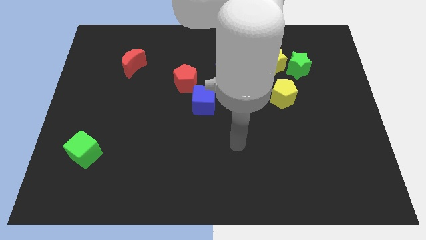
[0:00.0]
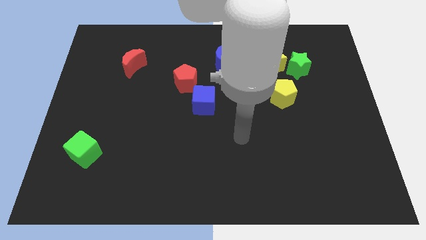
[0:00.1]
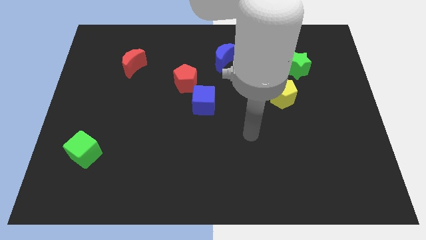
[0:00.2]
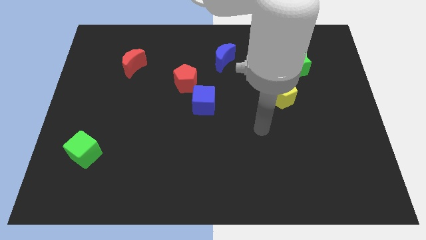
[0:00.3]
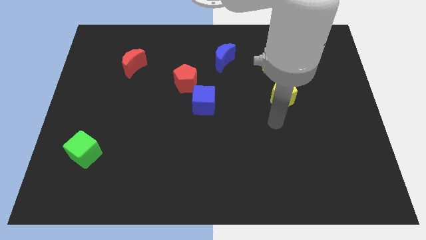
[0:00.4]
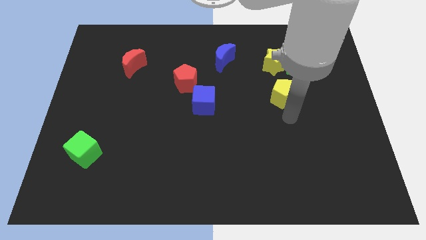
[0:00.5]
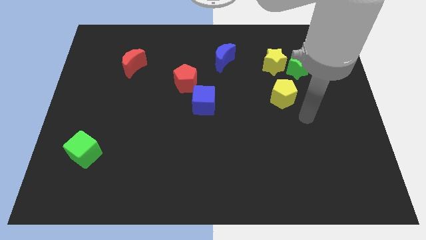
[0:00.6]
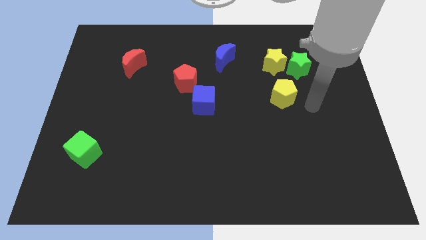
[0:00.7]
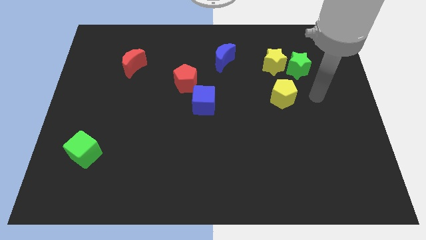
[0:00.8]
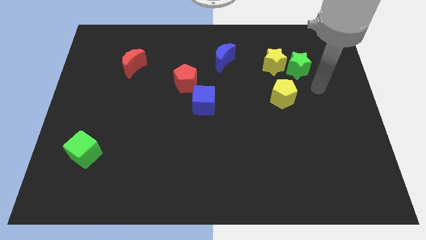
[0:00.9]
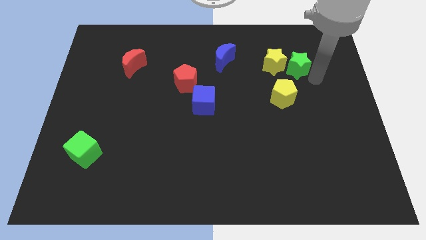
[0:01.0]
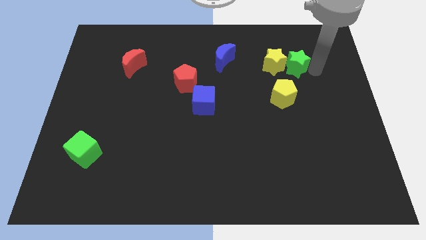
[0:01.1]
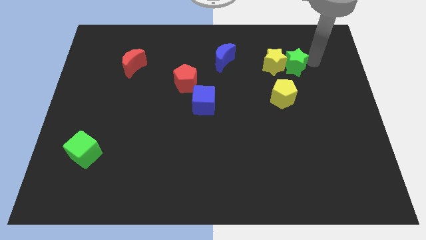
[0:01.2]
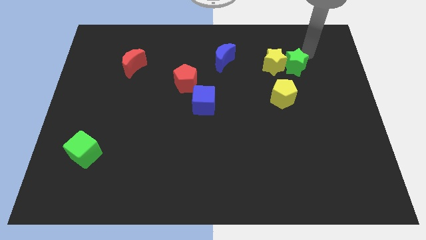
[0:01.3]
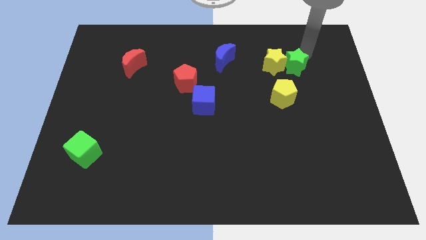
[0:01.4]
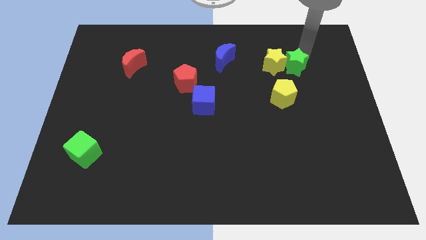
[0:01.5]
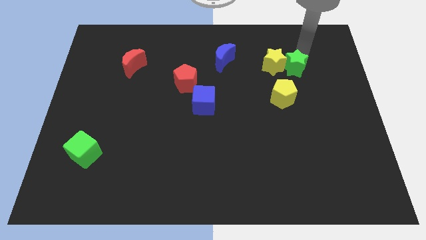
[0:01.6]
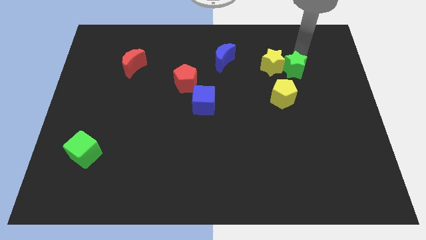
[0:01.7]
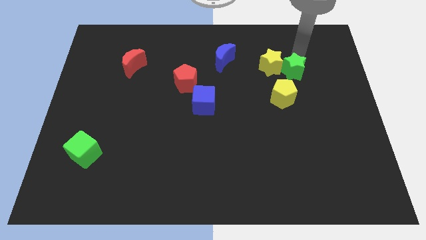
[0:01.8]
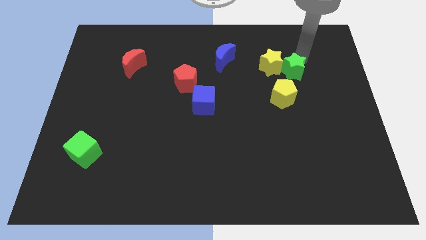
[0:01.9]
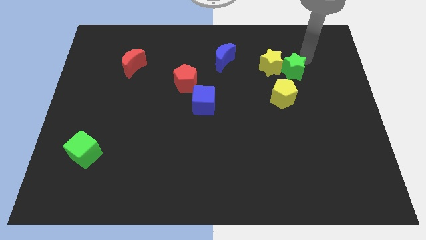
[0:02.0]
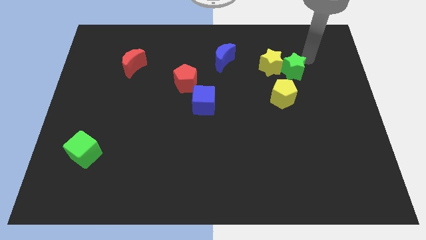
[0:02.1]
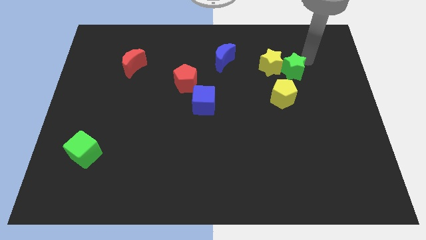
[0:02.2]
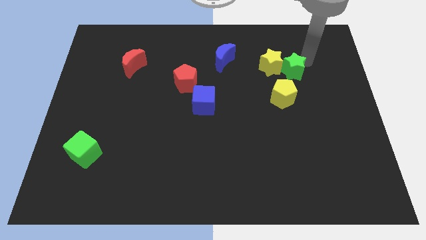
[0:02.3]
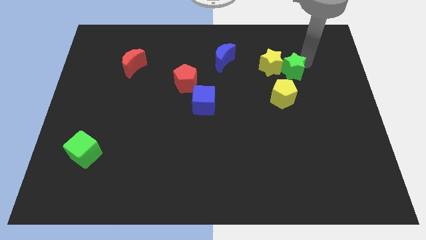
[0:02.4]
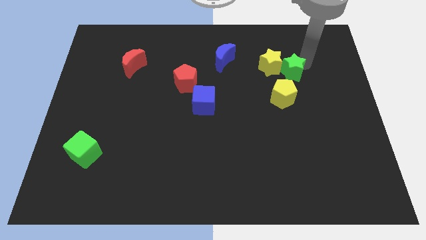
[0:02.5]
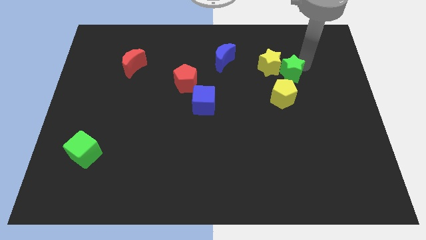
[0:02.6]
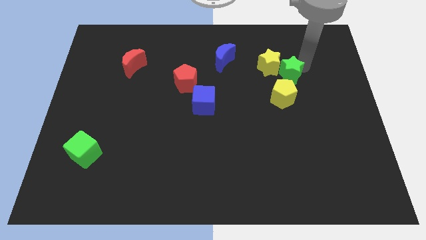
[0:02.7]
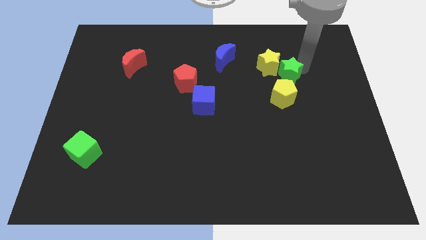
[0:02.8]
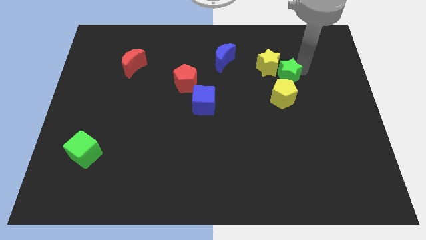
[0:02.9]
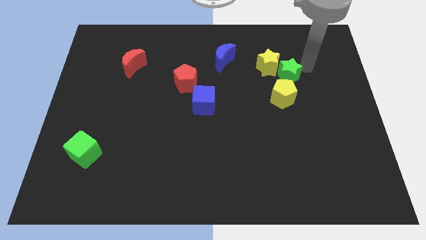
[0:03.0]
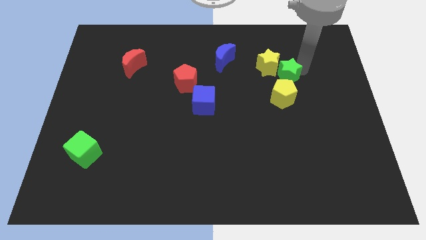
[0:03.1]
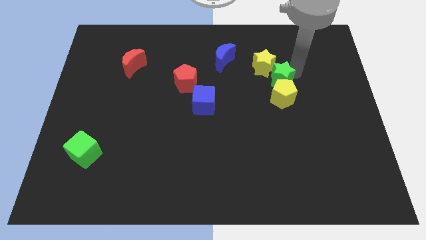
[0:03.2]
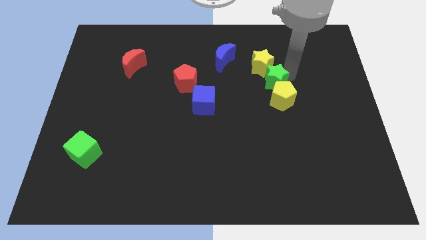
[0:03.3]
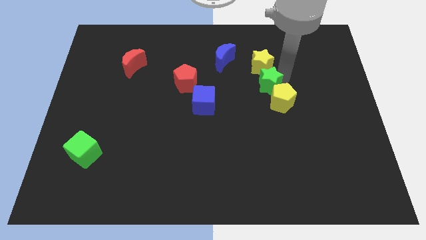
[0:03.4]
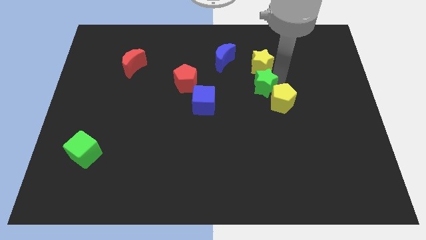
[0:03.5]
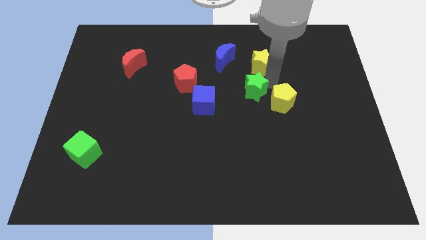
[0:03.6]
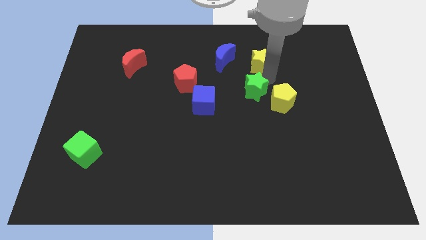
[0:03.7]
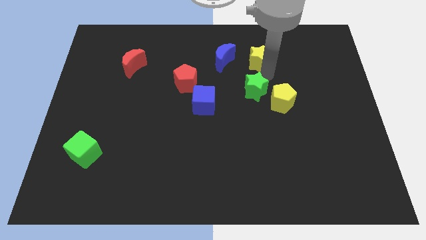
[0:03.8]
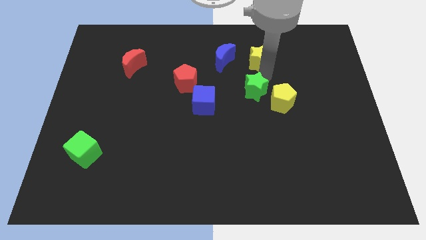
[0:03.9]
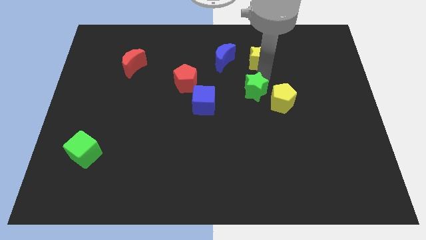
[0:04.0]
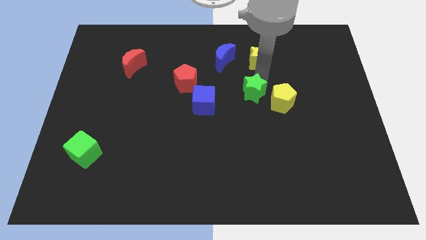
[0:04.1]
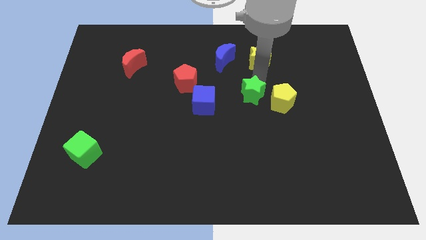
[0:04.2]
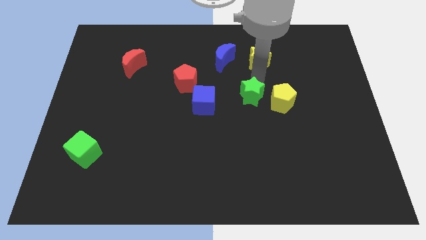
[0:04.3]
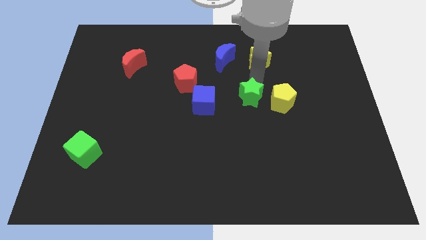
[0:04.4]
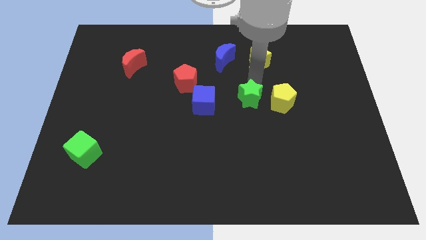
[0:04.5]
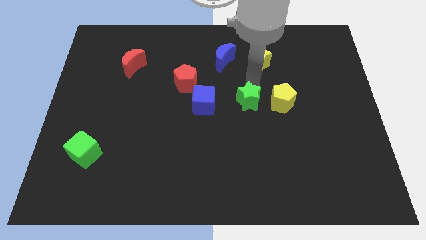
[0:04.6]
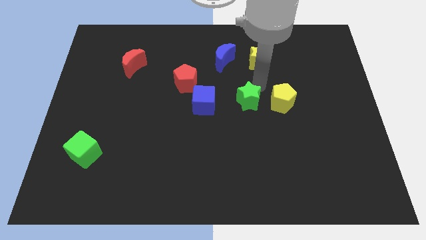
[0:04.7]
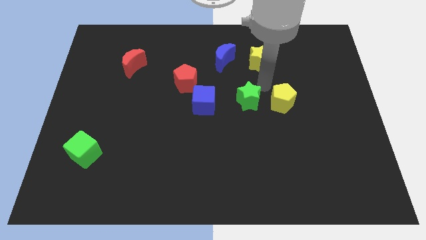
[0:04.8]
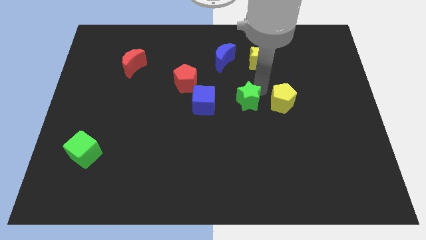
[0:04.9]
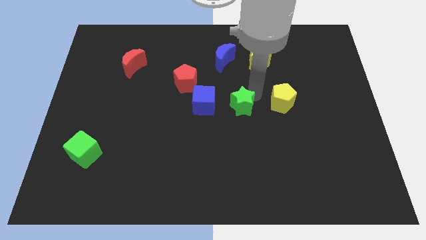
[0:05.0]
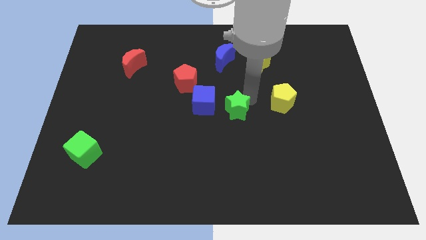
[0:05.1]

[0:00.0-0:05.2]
slide the green star to the bottom right side of the blue cube

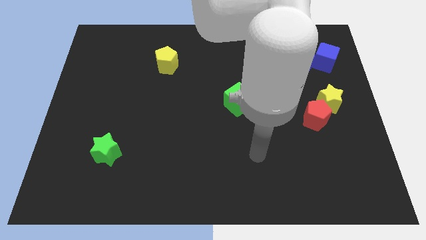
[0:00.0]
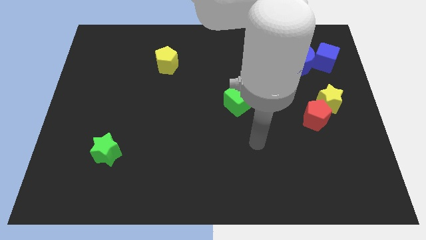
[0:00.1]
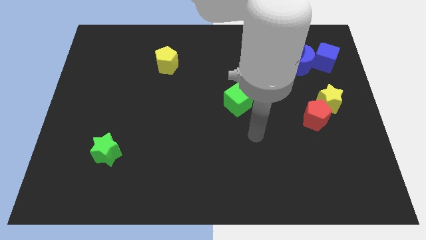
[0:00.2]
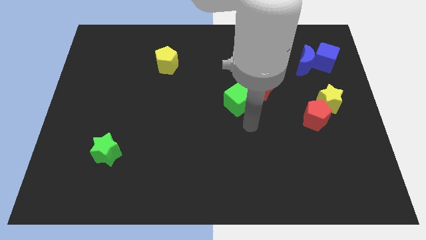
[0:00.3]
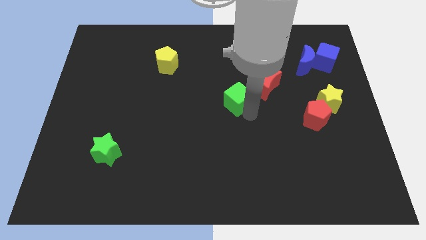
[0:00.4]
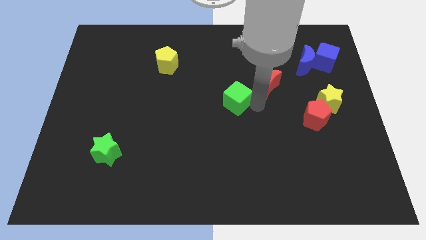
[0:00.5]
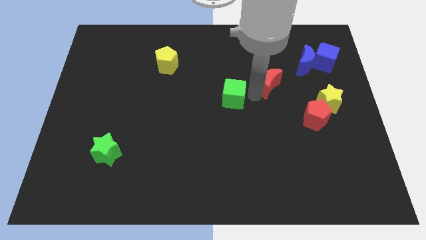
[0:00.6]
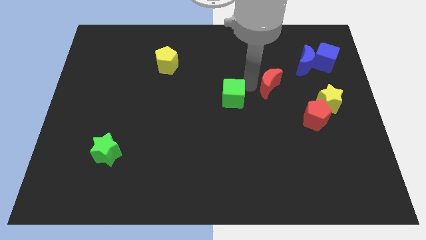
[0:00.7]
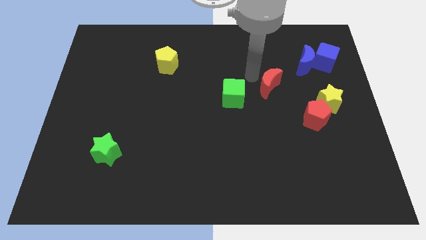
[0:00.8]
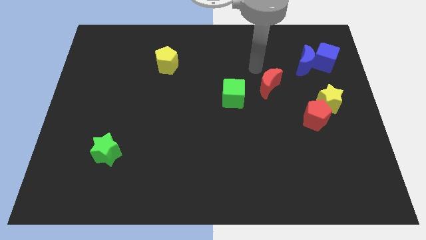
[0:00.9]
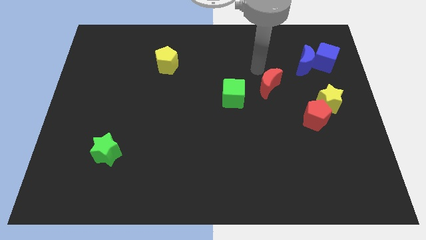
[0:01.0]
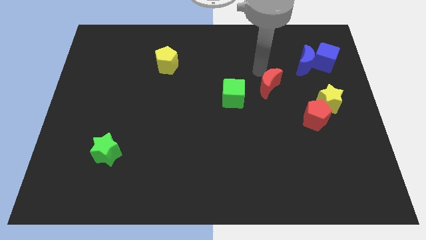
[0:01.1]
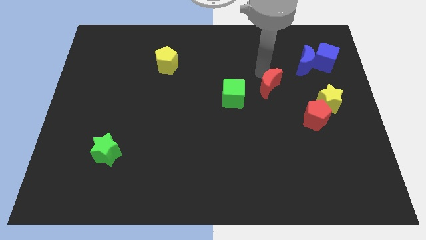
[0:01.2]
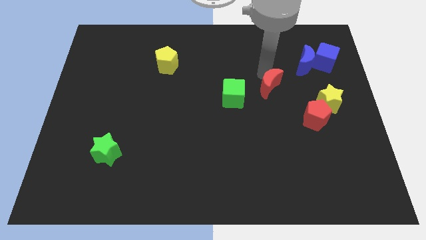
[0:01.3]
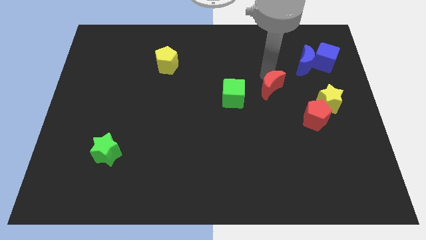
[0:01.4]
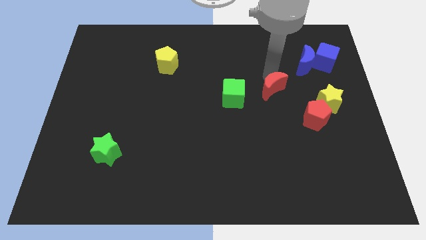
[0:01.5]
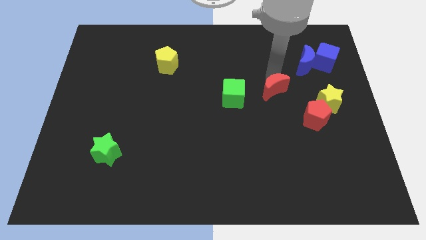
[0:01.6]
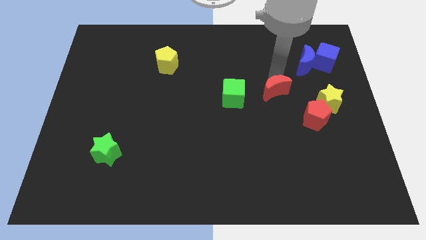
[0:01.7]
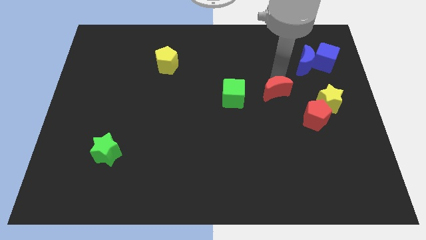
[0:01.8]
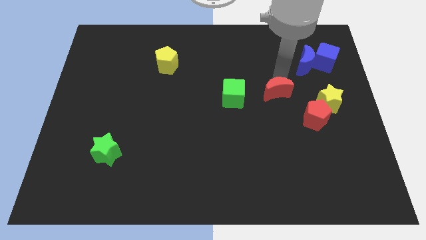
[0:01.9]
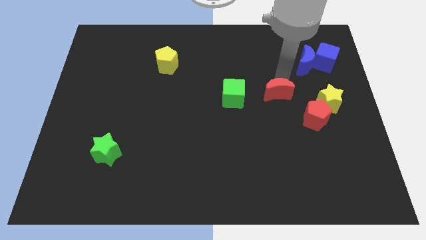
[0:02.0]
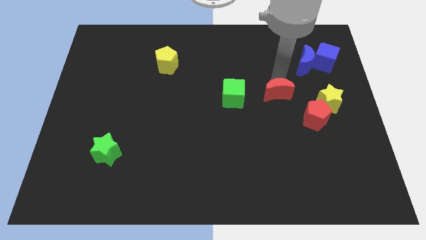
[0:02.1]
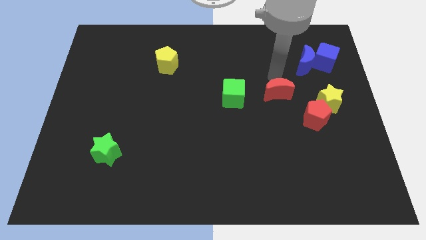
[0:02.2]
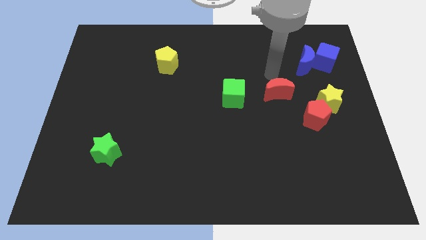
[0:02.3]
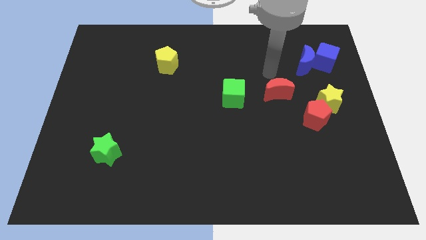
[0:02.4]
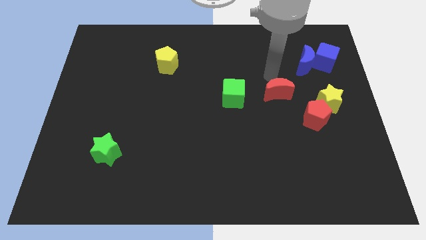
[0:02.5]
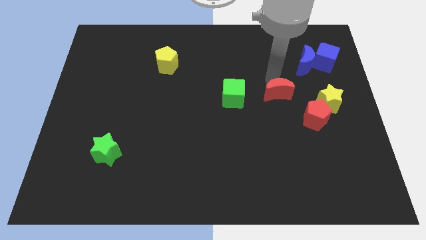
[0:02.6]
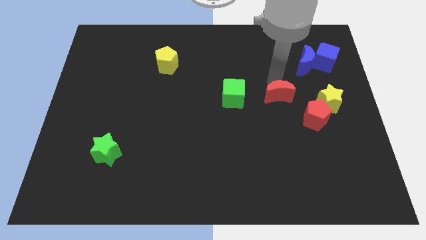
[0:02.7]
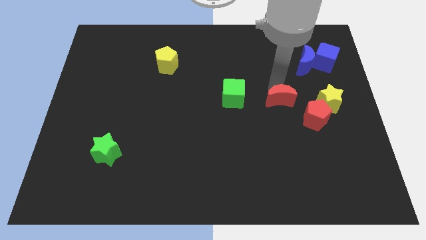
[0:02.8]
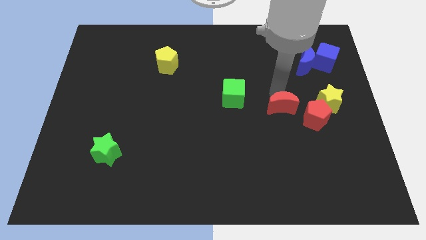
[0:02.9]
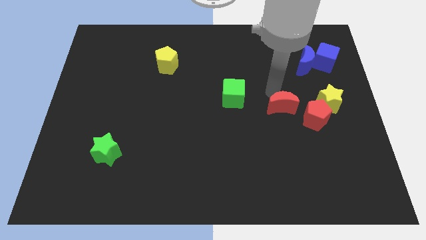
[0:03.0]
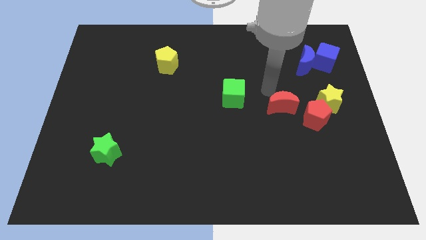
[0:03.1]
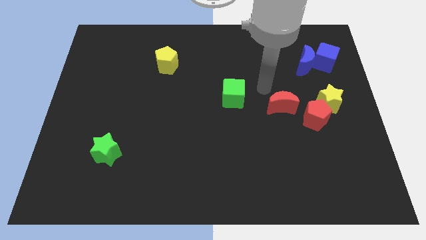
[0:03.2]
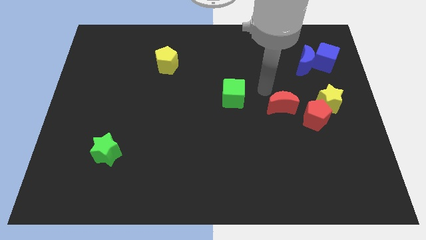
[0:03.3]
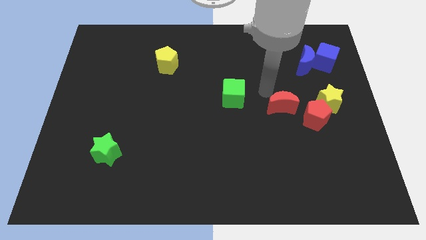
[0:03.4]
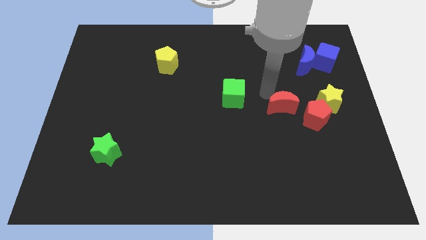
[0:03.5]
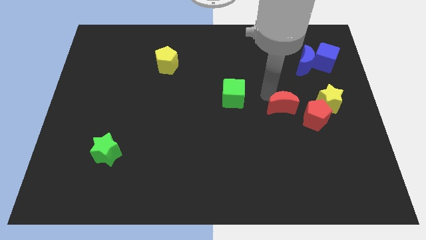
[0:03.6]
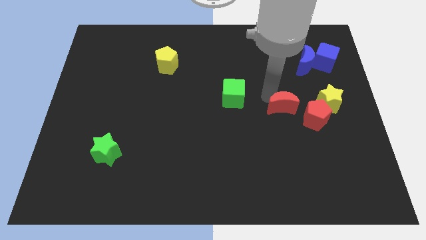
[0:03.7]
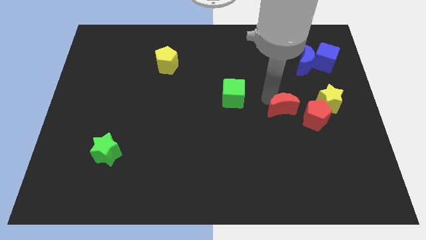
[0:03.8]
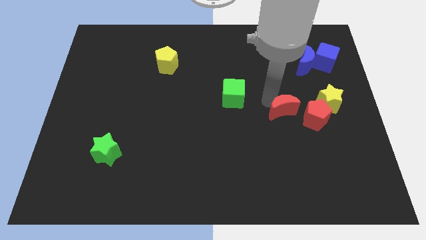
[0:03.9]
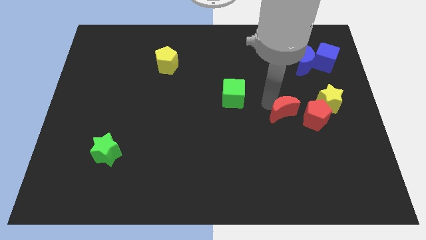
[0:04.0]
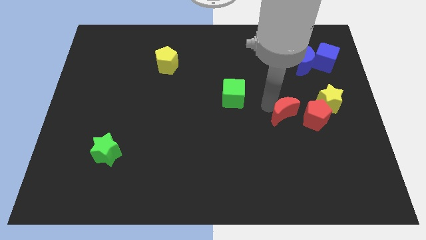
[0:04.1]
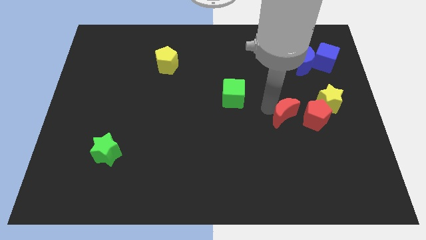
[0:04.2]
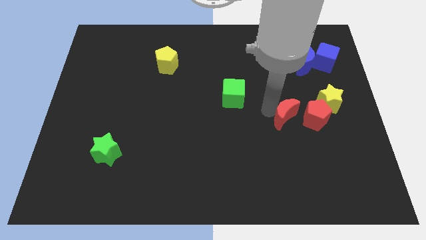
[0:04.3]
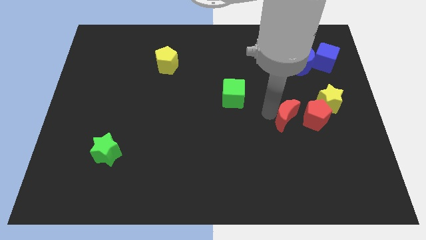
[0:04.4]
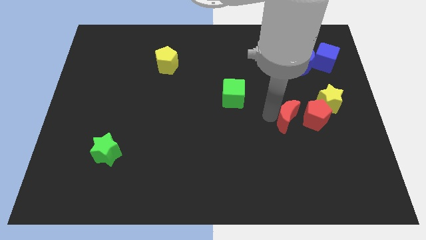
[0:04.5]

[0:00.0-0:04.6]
move the red moon to the bottom left side of the yellow star
